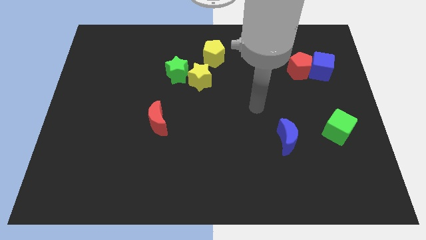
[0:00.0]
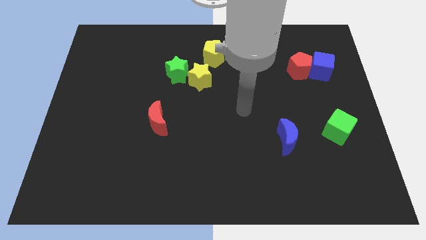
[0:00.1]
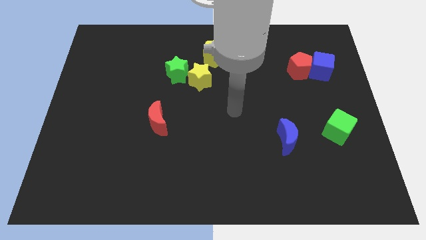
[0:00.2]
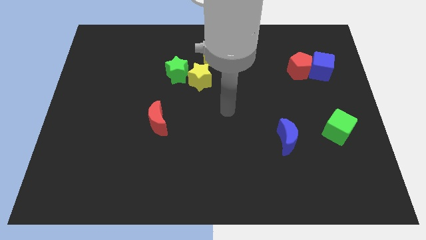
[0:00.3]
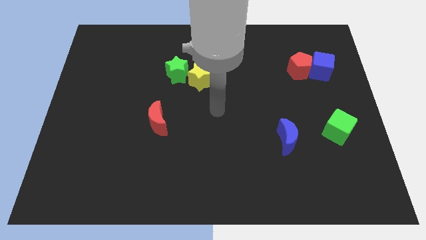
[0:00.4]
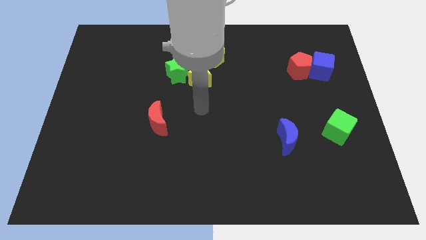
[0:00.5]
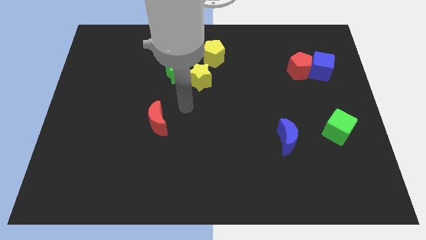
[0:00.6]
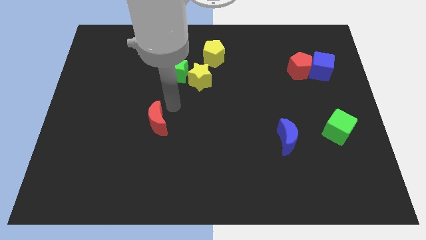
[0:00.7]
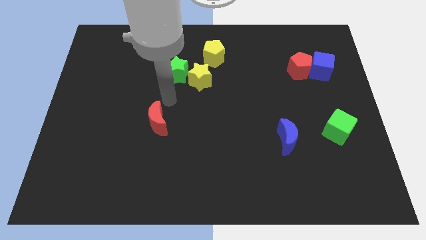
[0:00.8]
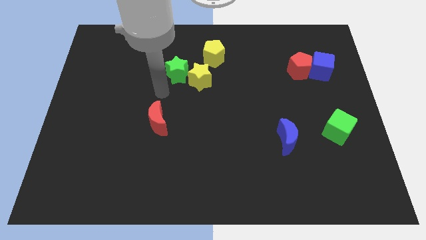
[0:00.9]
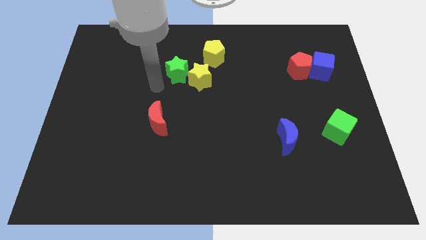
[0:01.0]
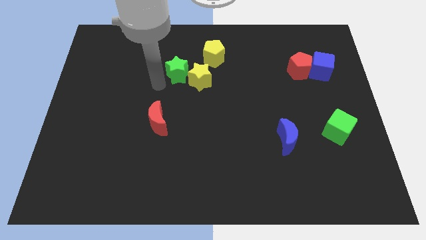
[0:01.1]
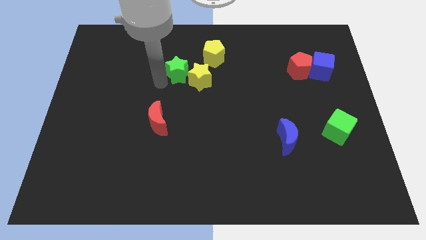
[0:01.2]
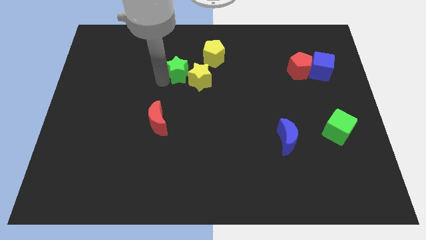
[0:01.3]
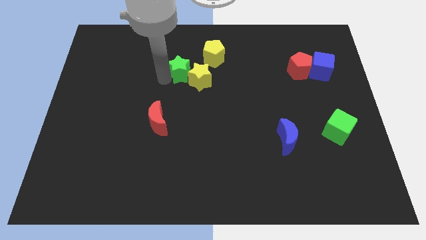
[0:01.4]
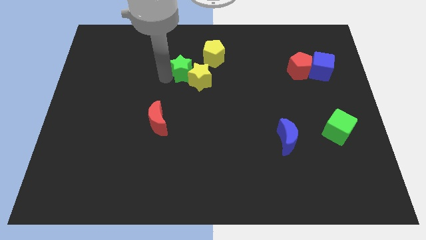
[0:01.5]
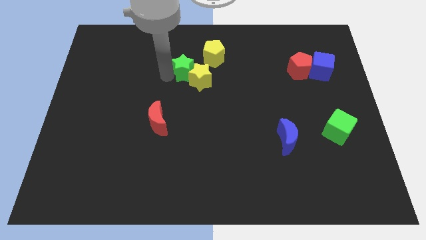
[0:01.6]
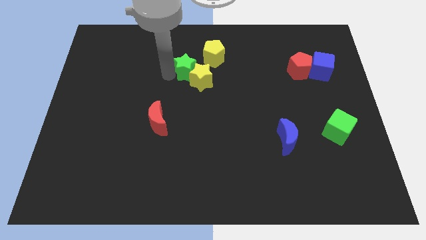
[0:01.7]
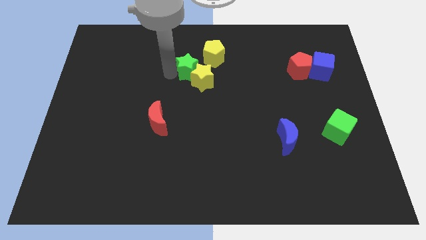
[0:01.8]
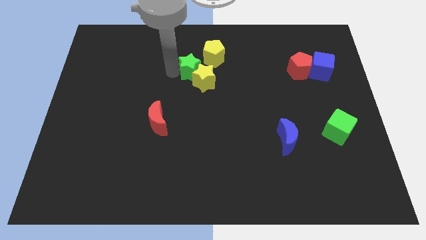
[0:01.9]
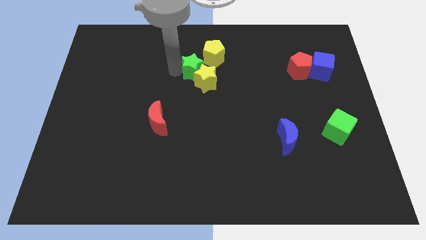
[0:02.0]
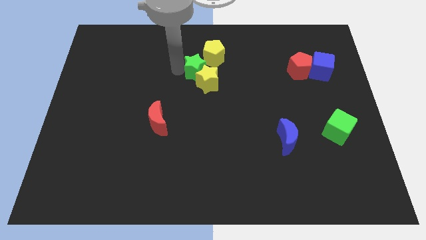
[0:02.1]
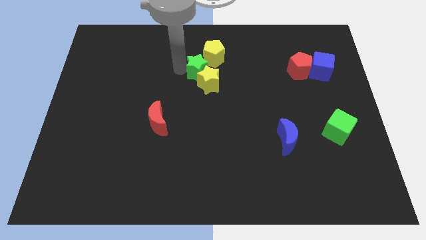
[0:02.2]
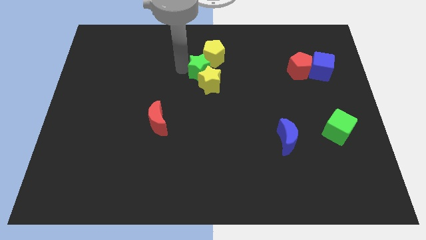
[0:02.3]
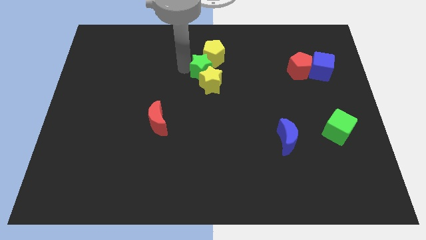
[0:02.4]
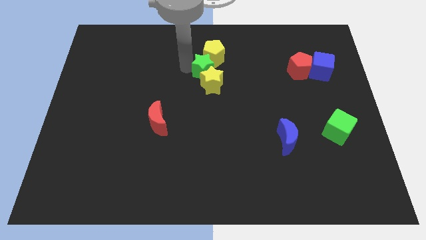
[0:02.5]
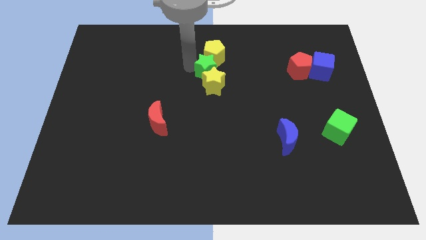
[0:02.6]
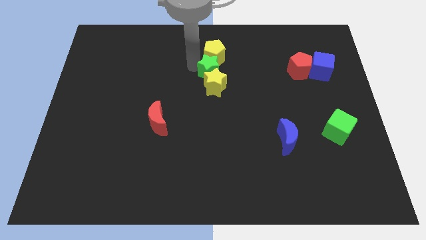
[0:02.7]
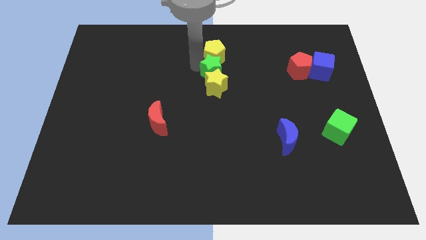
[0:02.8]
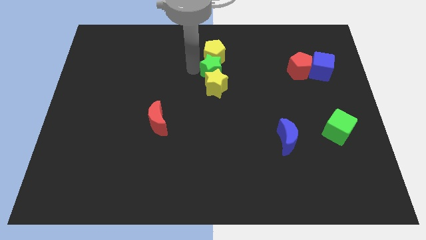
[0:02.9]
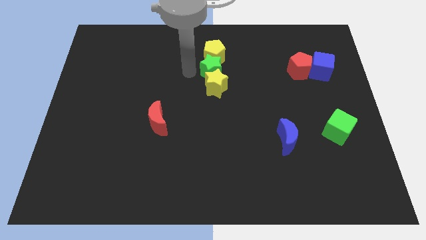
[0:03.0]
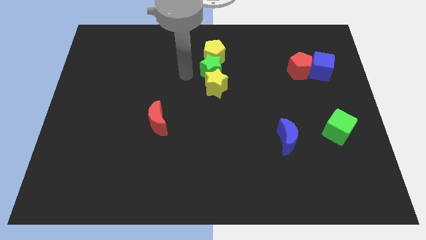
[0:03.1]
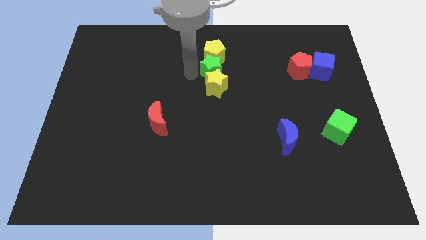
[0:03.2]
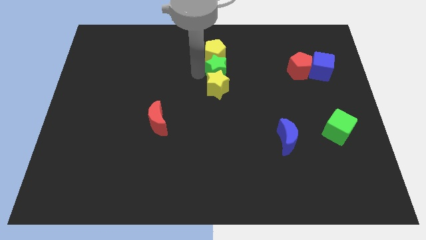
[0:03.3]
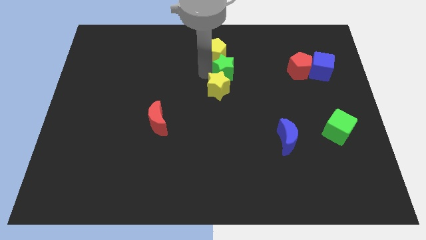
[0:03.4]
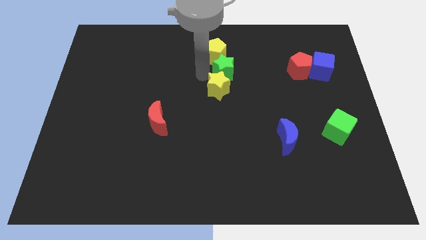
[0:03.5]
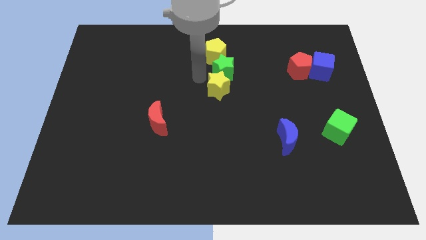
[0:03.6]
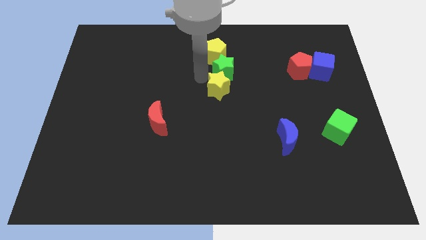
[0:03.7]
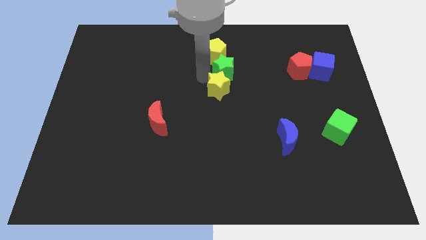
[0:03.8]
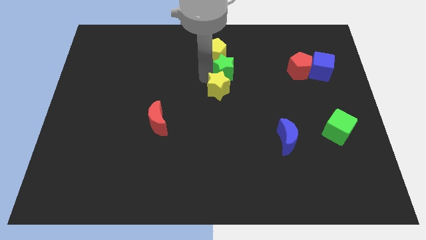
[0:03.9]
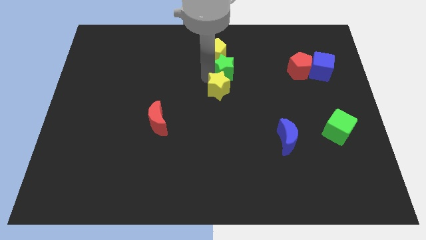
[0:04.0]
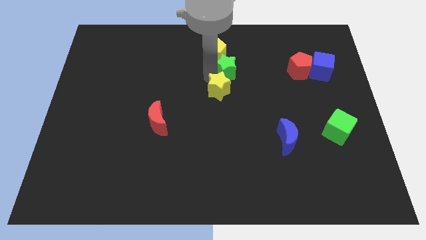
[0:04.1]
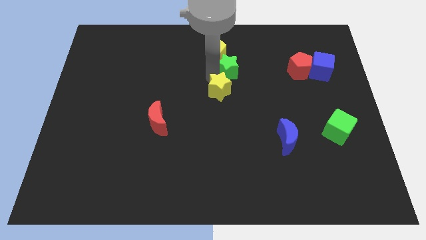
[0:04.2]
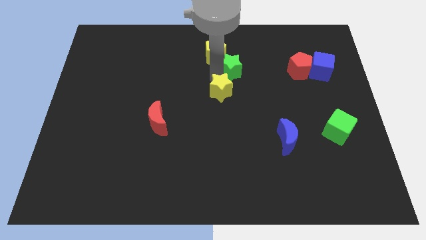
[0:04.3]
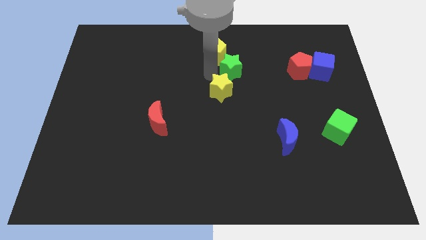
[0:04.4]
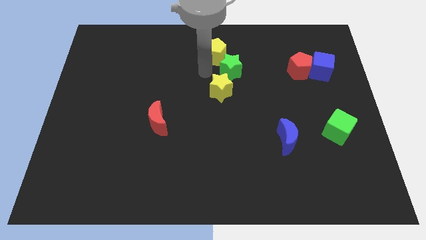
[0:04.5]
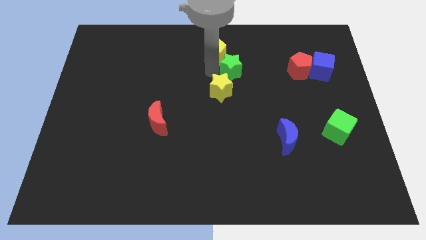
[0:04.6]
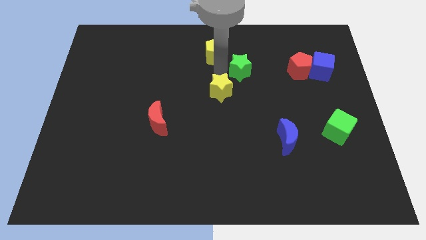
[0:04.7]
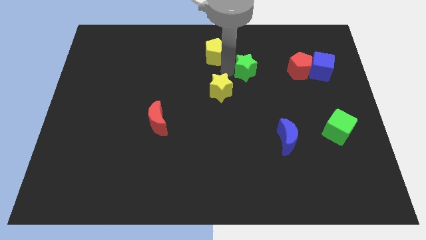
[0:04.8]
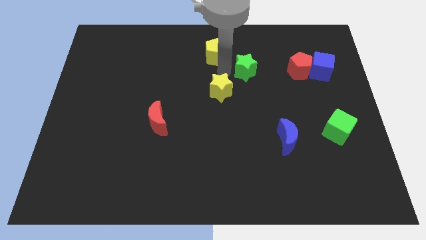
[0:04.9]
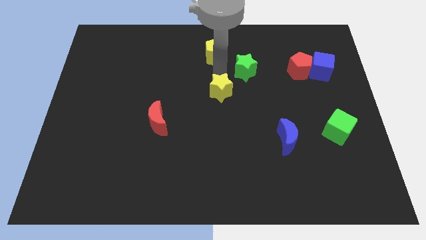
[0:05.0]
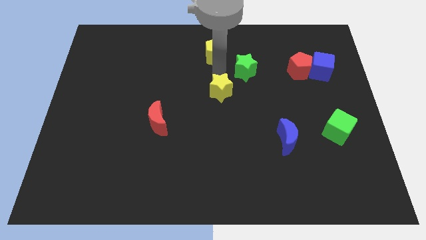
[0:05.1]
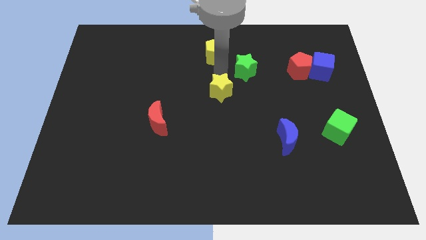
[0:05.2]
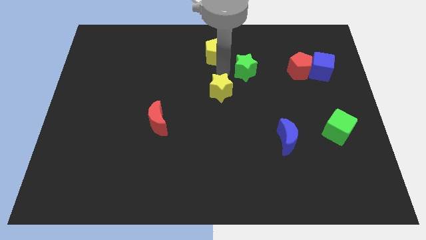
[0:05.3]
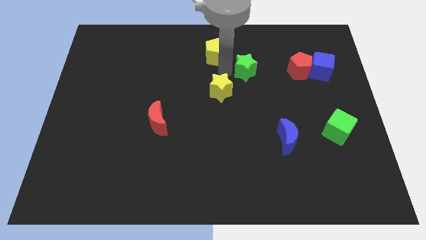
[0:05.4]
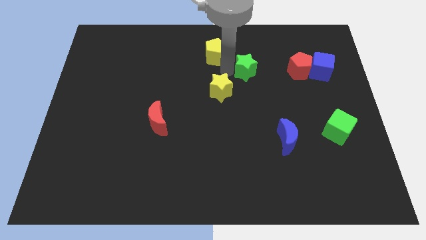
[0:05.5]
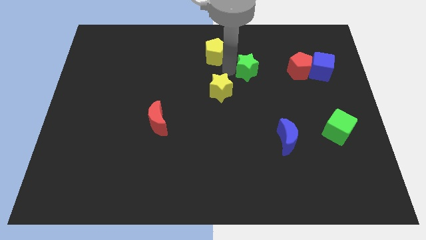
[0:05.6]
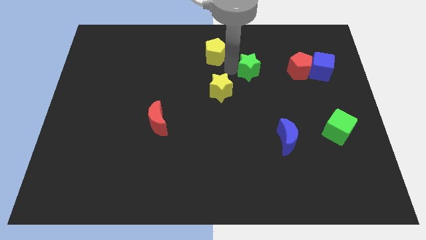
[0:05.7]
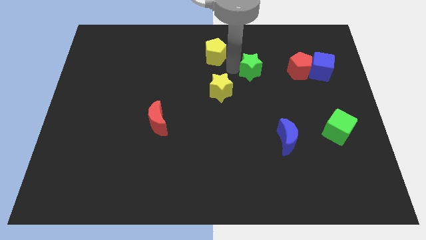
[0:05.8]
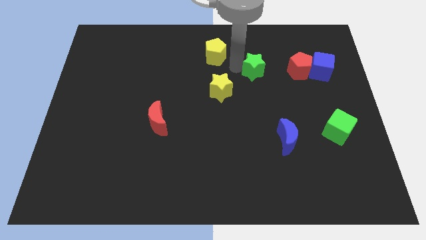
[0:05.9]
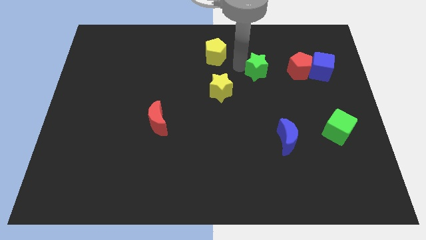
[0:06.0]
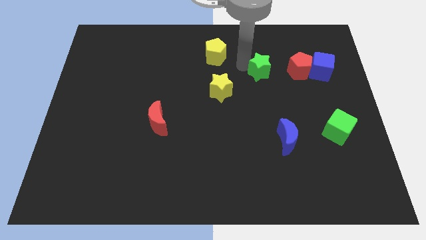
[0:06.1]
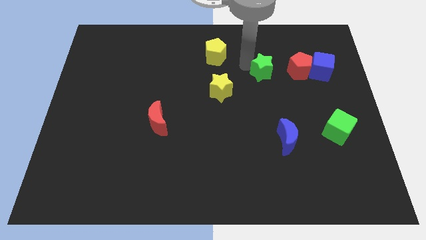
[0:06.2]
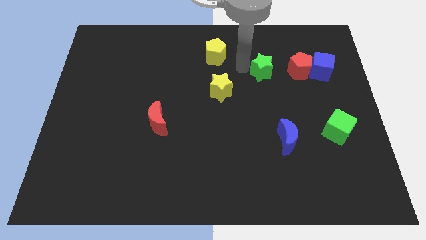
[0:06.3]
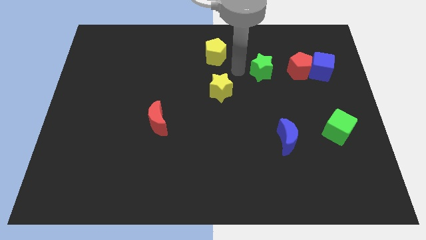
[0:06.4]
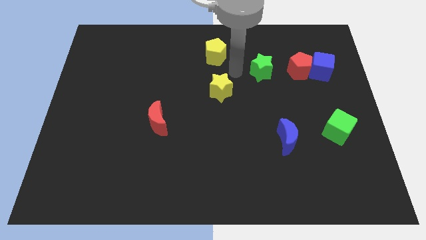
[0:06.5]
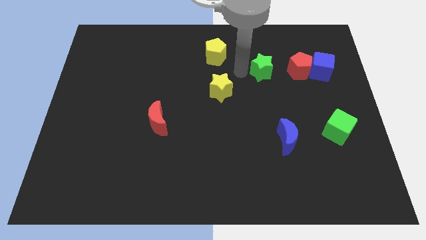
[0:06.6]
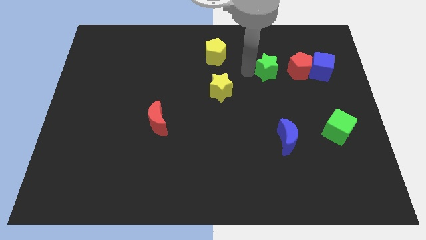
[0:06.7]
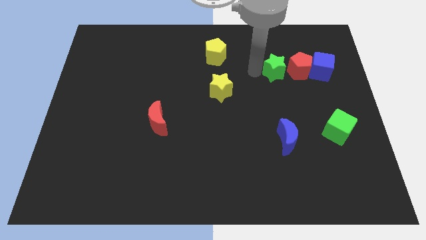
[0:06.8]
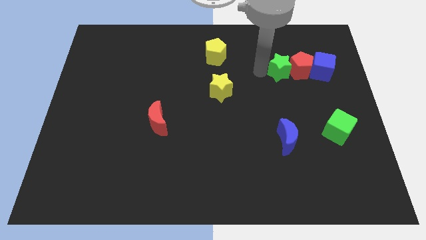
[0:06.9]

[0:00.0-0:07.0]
put the green star to the red pentagon
